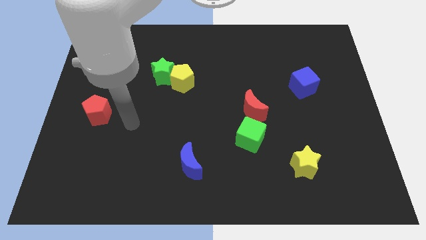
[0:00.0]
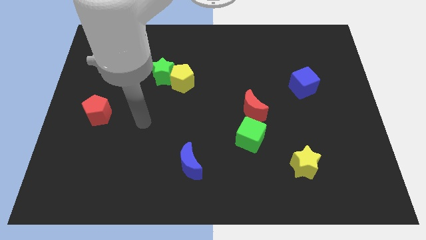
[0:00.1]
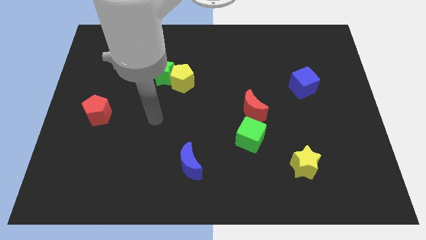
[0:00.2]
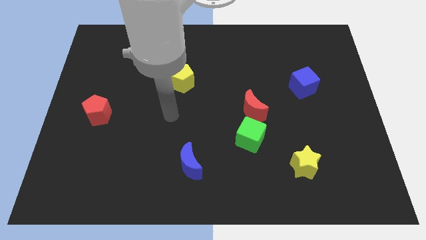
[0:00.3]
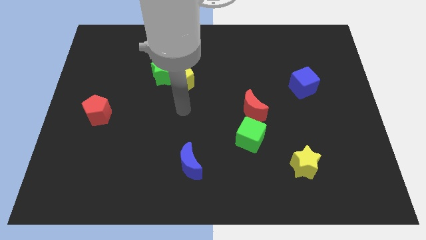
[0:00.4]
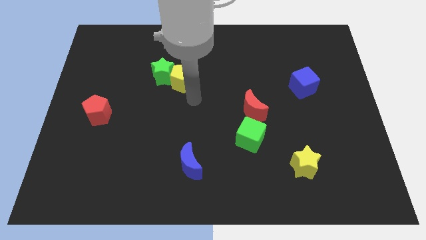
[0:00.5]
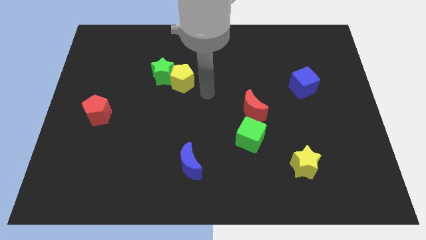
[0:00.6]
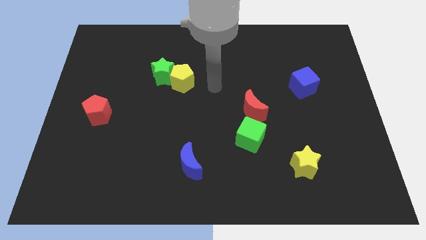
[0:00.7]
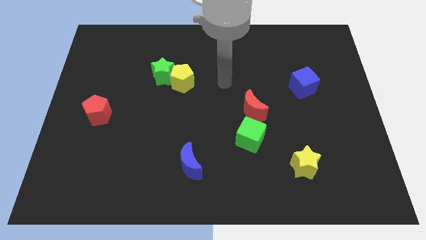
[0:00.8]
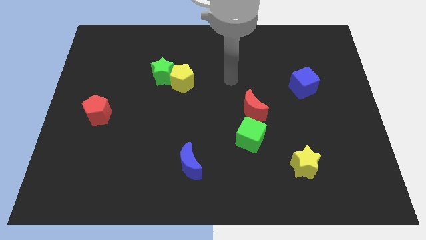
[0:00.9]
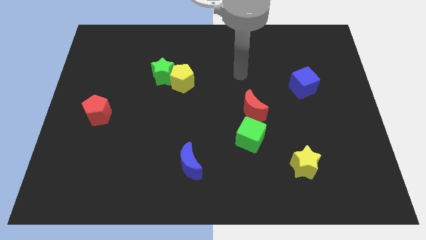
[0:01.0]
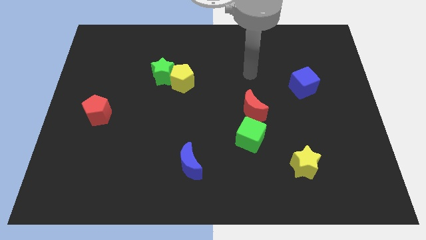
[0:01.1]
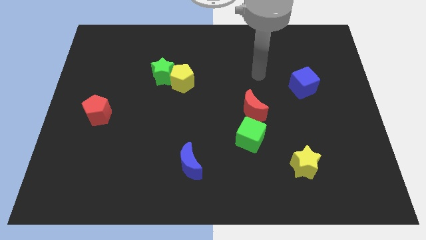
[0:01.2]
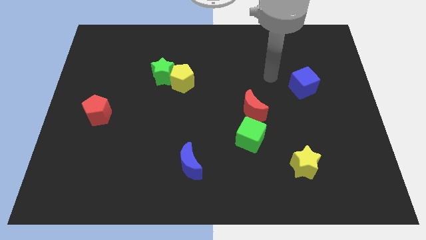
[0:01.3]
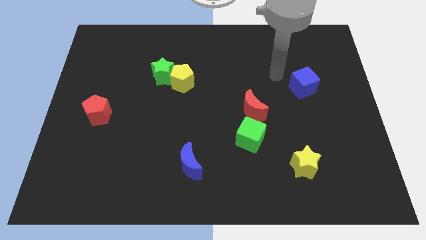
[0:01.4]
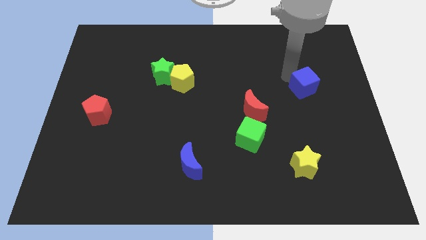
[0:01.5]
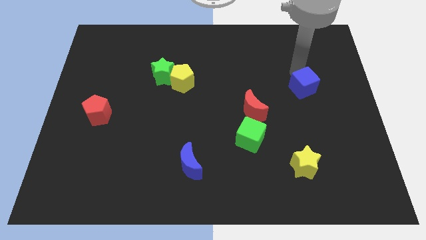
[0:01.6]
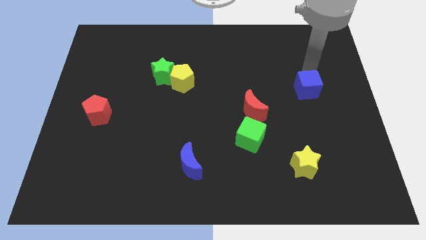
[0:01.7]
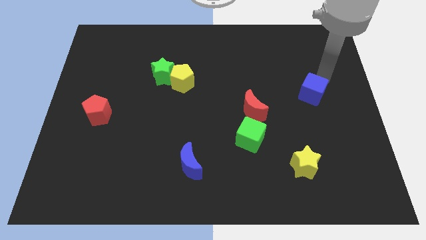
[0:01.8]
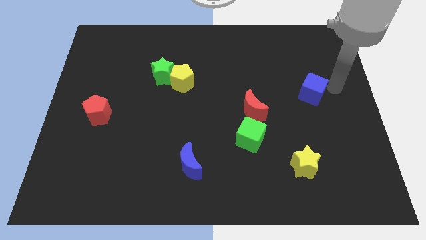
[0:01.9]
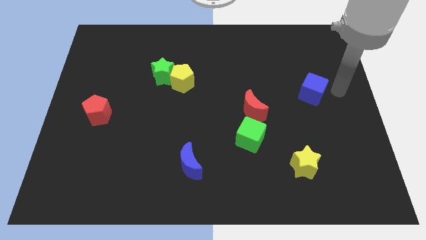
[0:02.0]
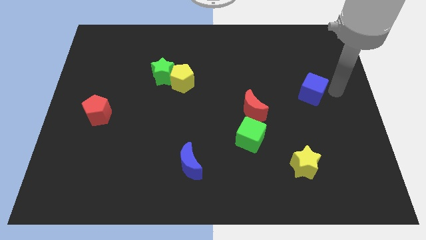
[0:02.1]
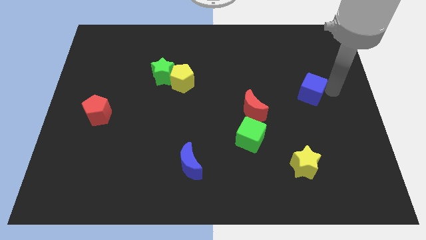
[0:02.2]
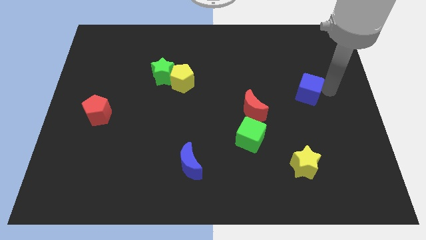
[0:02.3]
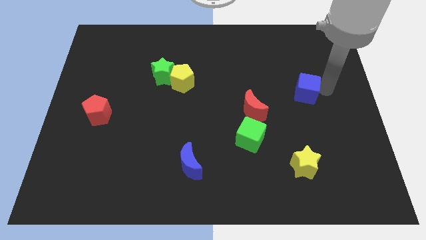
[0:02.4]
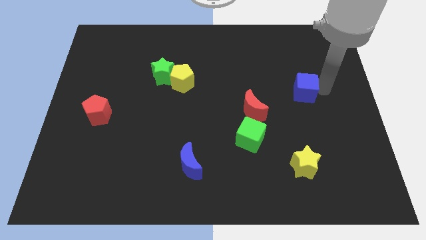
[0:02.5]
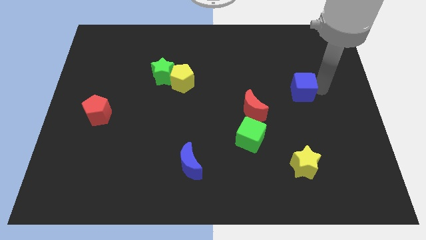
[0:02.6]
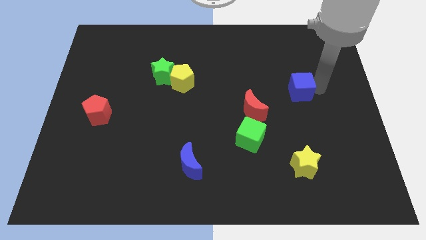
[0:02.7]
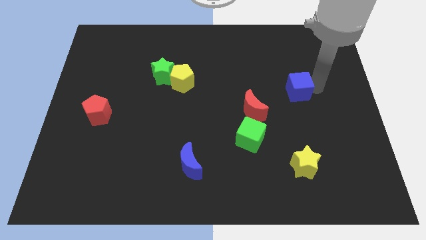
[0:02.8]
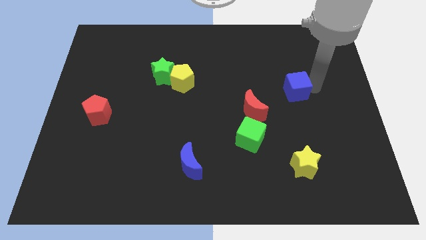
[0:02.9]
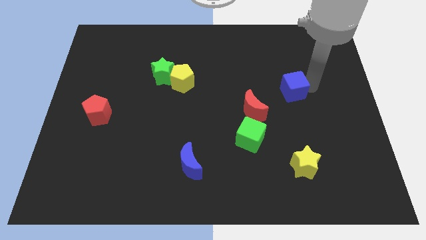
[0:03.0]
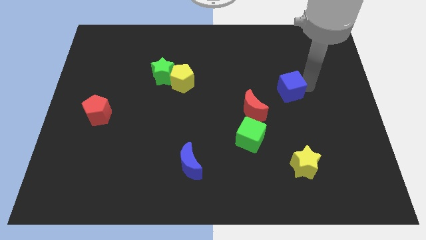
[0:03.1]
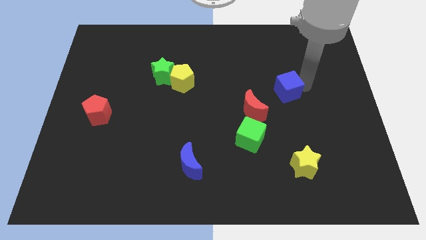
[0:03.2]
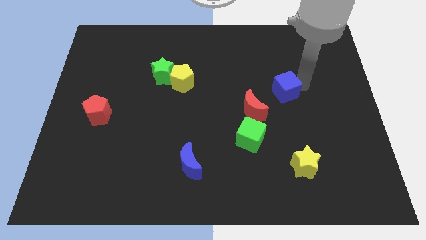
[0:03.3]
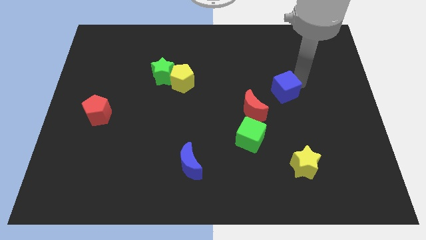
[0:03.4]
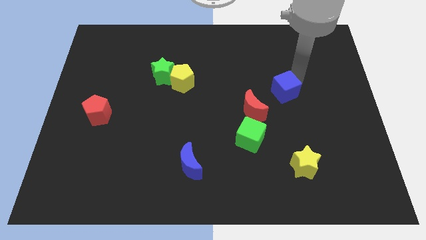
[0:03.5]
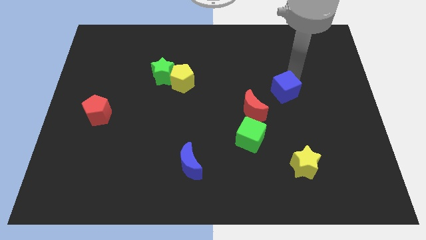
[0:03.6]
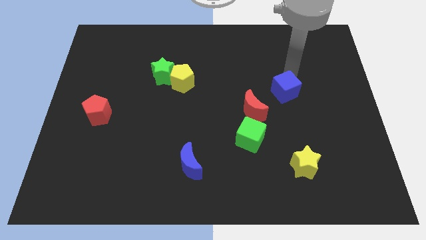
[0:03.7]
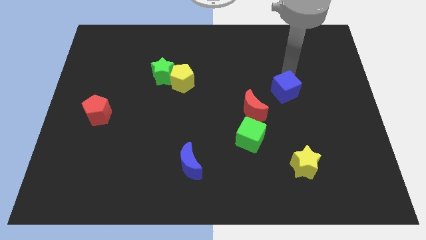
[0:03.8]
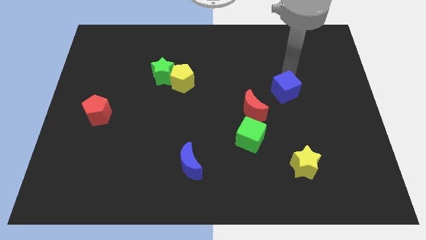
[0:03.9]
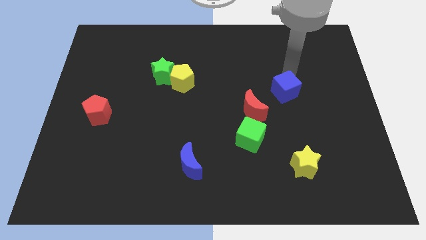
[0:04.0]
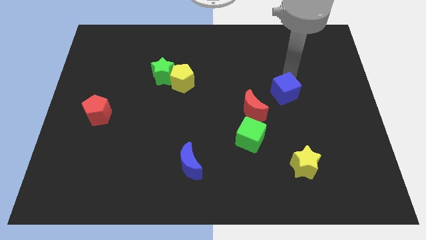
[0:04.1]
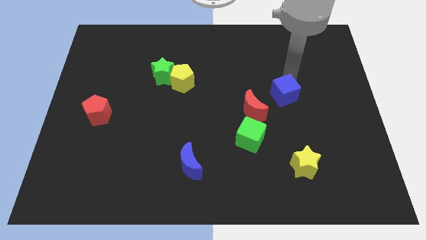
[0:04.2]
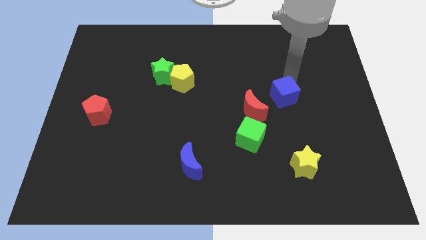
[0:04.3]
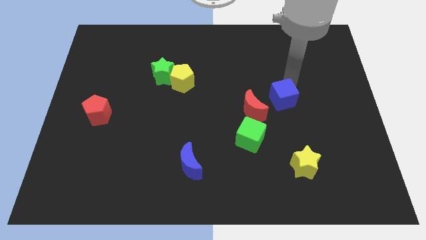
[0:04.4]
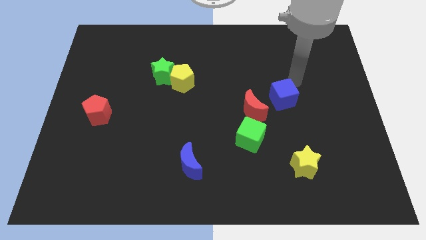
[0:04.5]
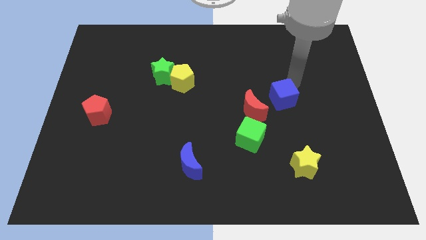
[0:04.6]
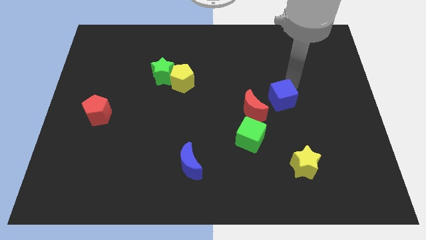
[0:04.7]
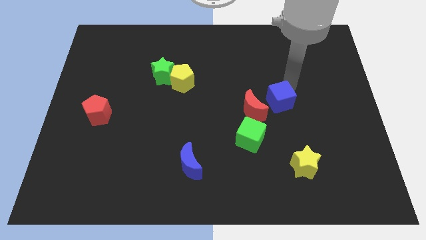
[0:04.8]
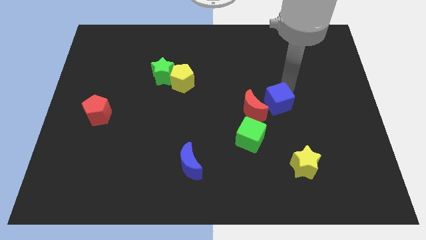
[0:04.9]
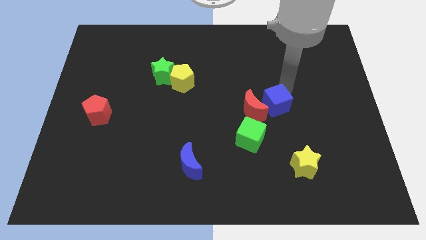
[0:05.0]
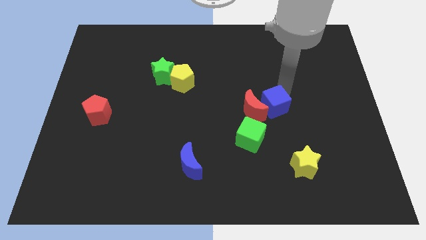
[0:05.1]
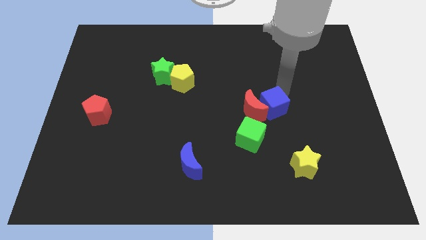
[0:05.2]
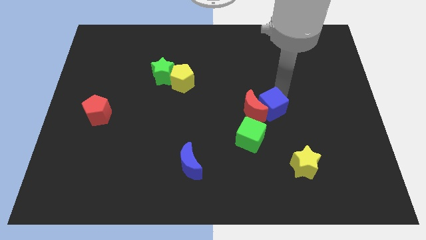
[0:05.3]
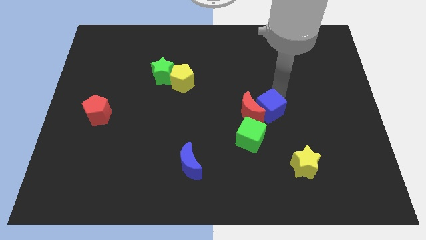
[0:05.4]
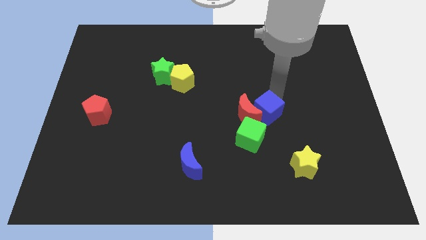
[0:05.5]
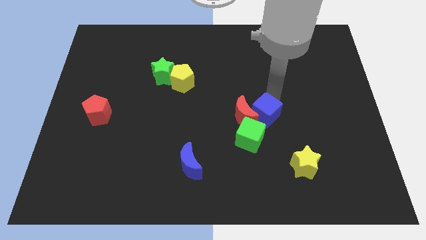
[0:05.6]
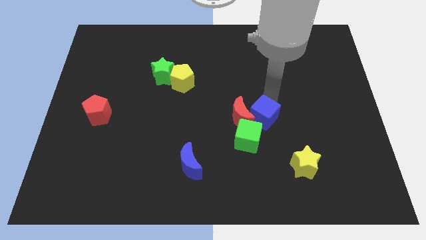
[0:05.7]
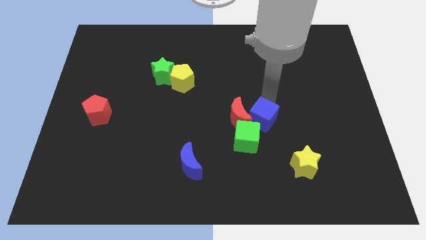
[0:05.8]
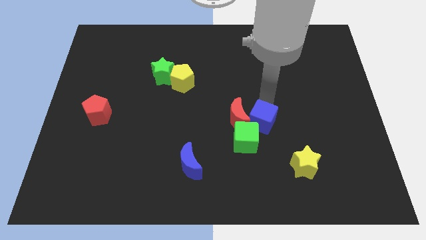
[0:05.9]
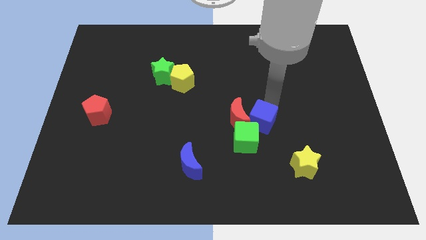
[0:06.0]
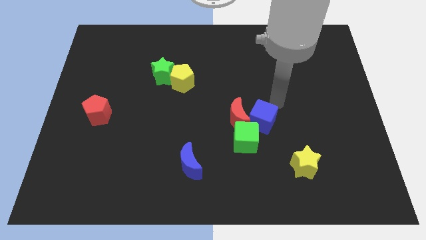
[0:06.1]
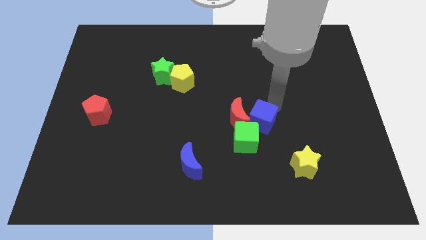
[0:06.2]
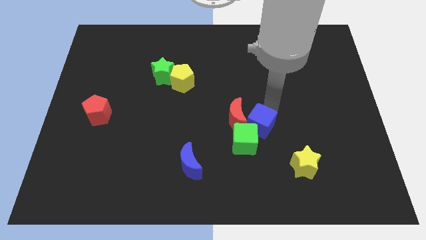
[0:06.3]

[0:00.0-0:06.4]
slide the blue cube close to the green cube
